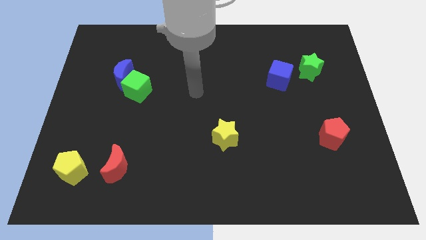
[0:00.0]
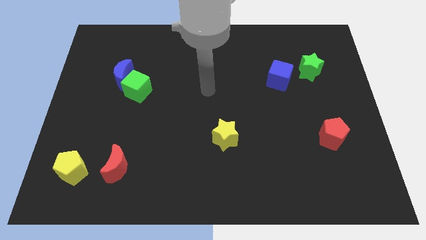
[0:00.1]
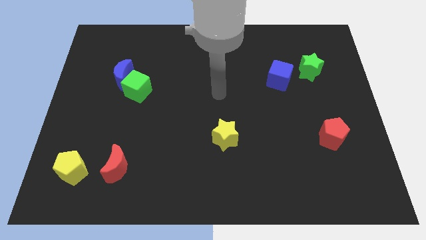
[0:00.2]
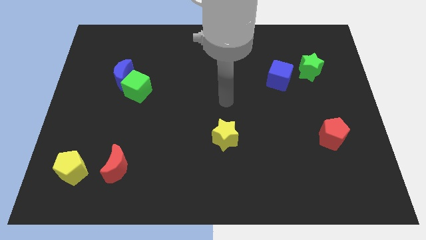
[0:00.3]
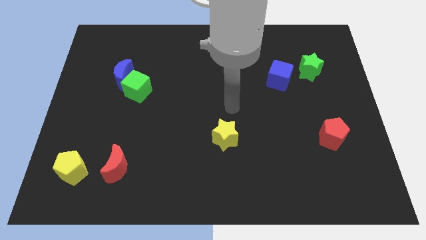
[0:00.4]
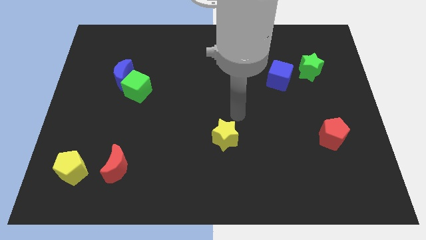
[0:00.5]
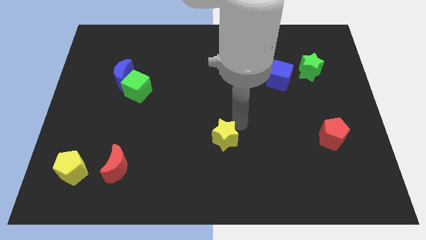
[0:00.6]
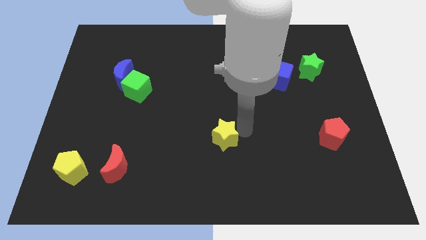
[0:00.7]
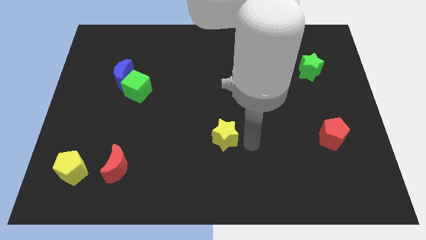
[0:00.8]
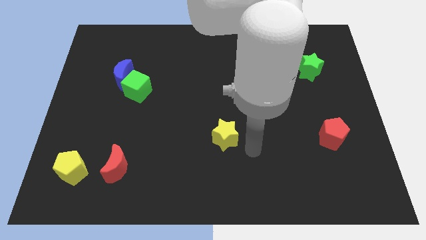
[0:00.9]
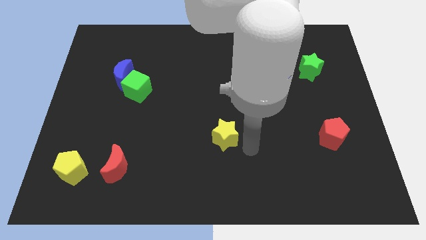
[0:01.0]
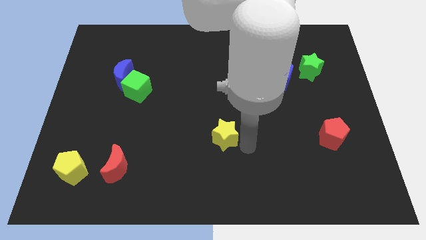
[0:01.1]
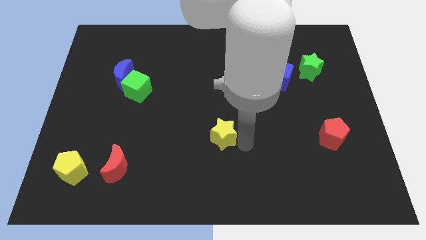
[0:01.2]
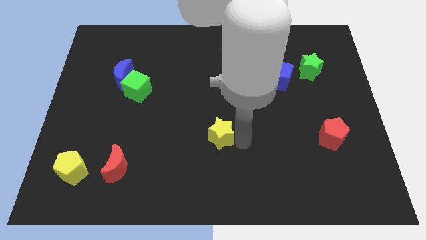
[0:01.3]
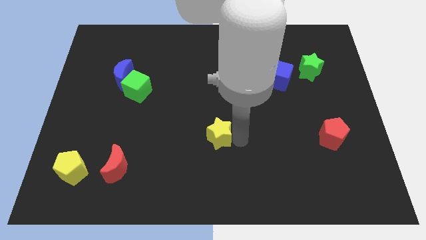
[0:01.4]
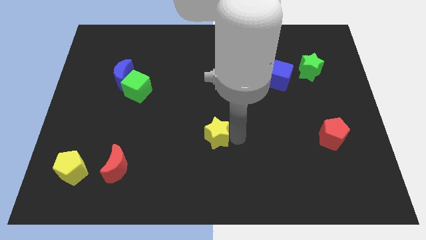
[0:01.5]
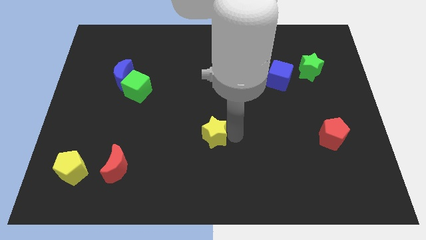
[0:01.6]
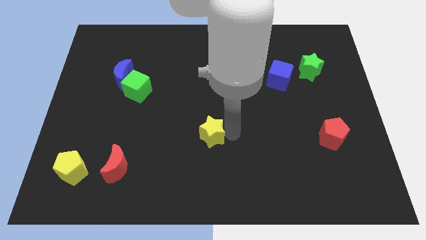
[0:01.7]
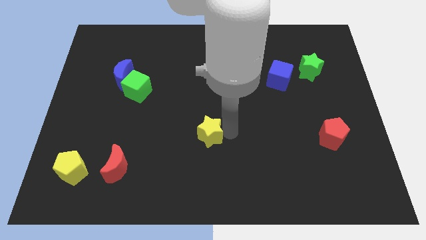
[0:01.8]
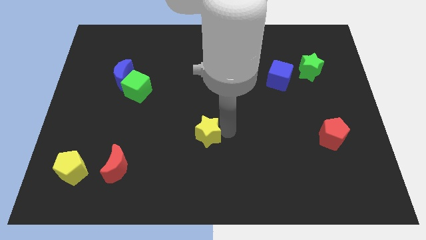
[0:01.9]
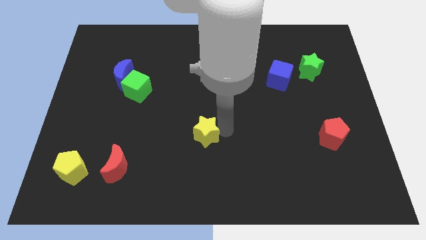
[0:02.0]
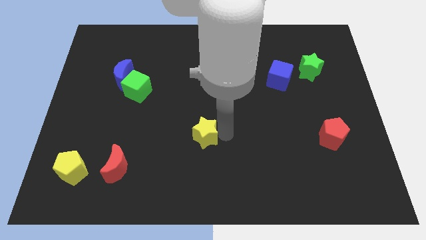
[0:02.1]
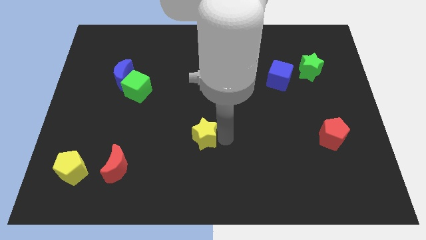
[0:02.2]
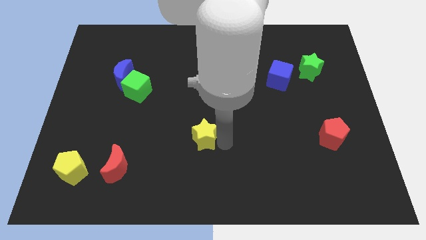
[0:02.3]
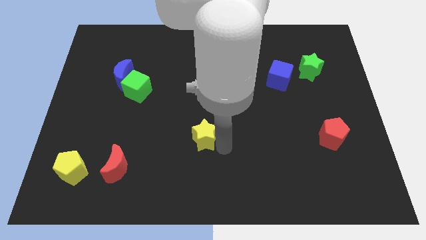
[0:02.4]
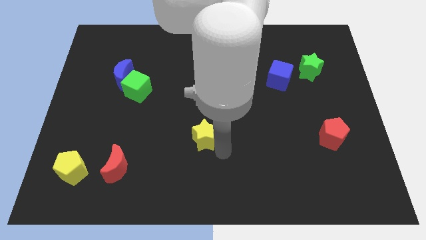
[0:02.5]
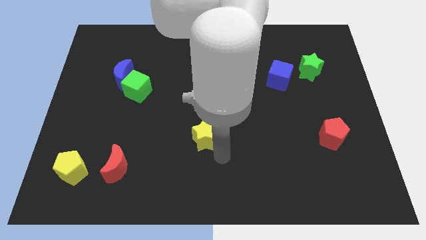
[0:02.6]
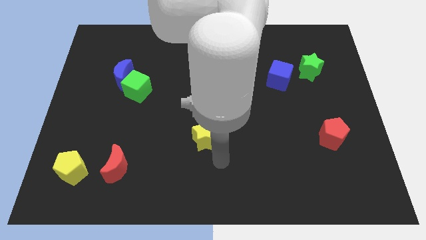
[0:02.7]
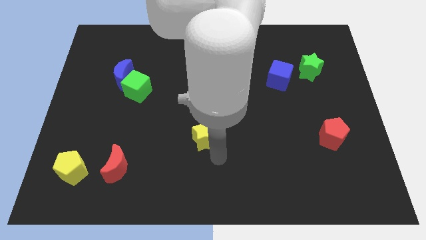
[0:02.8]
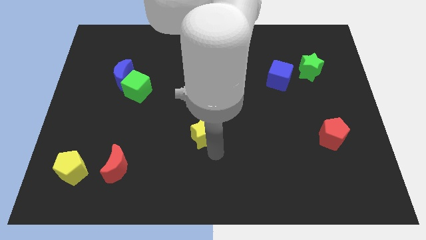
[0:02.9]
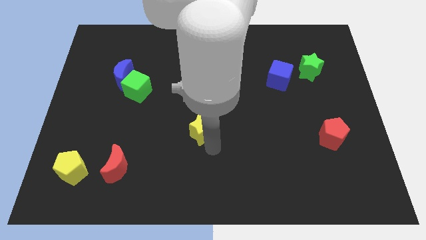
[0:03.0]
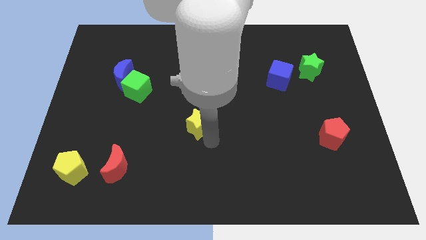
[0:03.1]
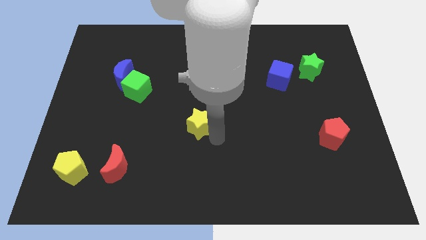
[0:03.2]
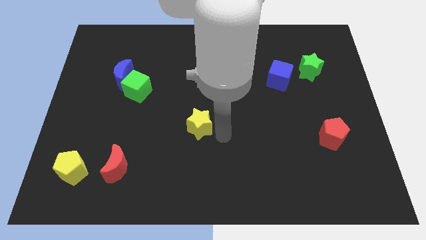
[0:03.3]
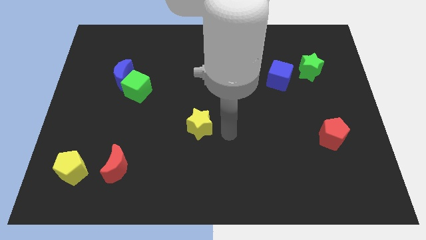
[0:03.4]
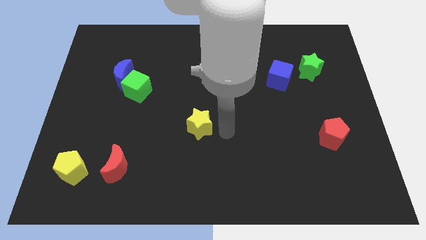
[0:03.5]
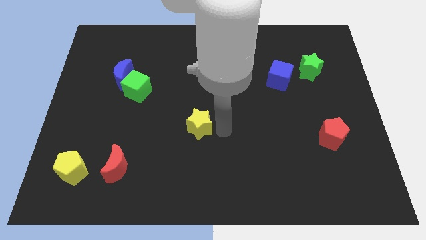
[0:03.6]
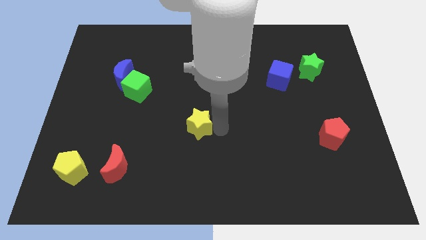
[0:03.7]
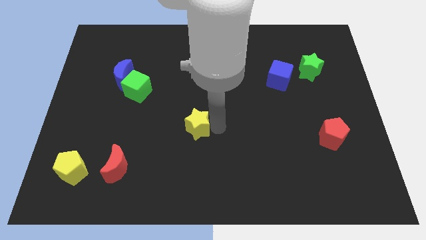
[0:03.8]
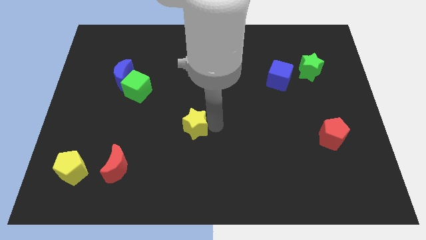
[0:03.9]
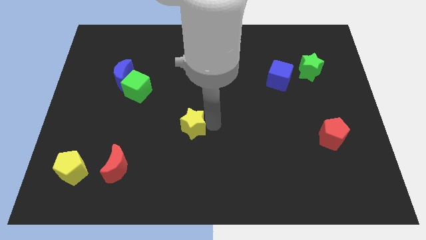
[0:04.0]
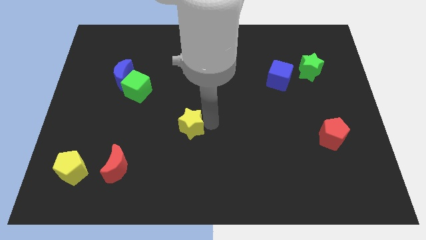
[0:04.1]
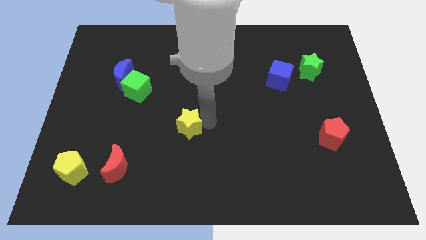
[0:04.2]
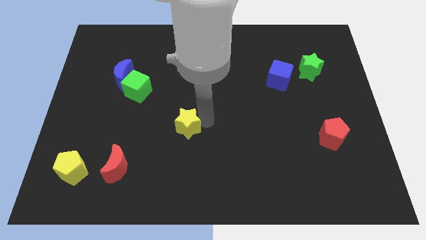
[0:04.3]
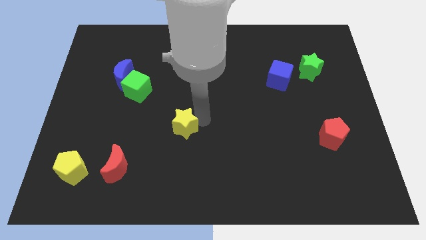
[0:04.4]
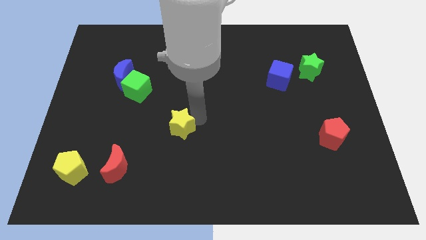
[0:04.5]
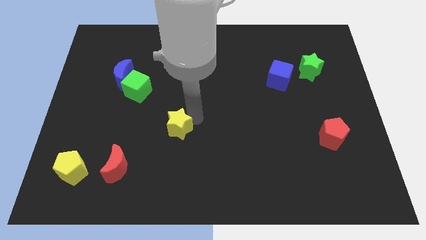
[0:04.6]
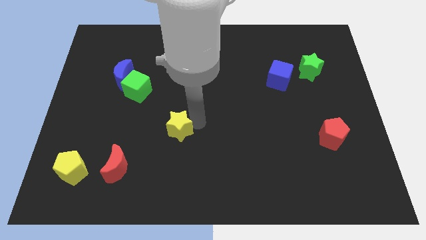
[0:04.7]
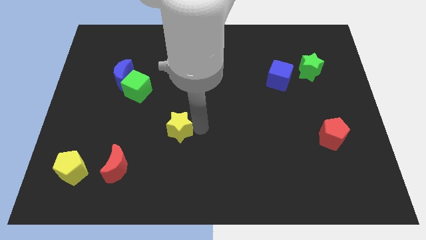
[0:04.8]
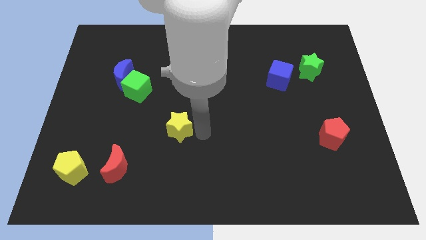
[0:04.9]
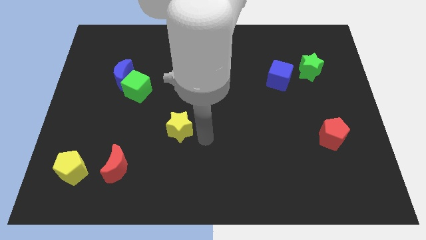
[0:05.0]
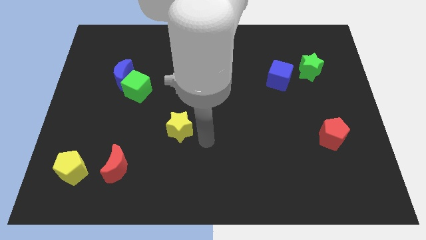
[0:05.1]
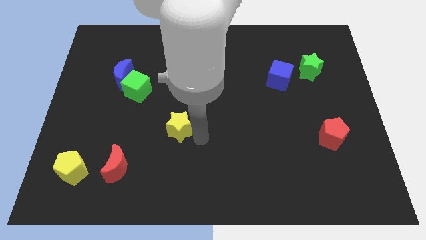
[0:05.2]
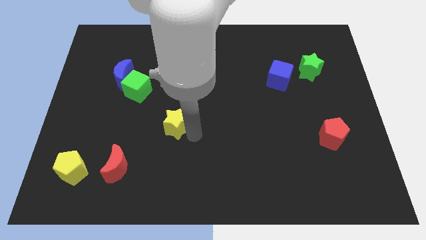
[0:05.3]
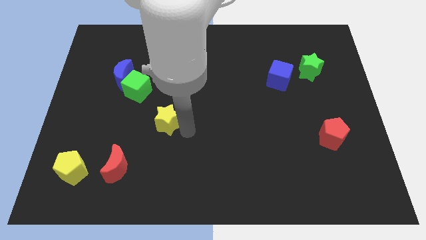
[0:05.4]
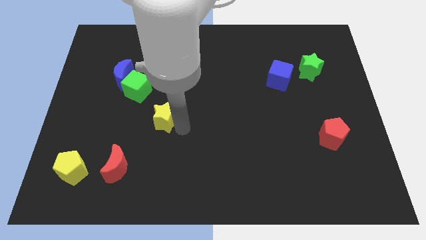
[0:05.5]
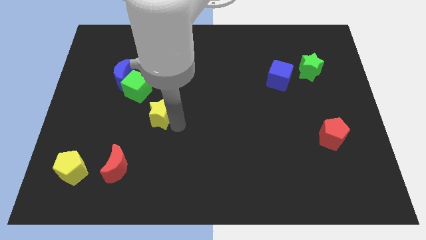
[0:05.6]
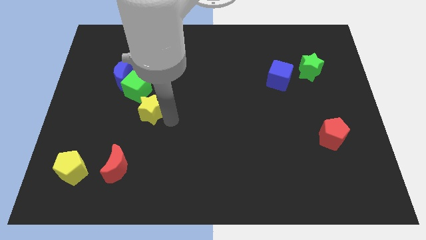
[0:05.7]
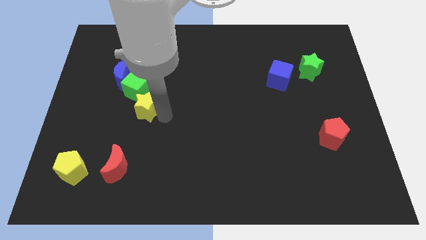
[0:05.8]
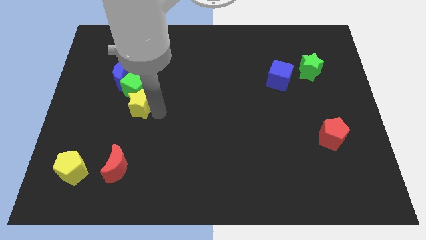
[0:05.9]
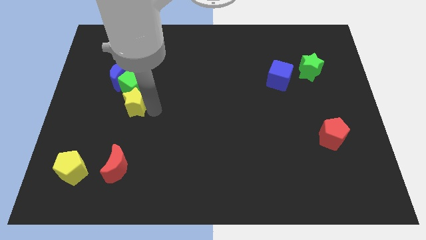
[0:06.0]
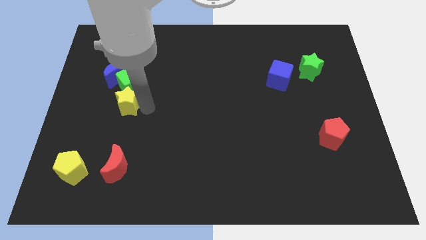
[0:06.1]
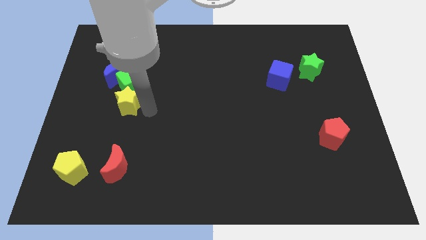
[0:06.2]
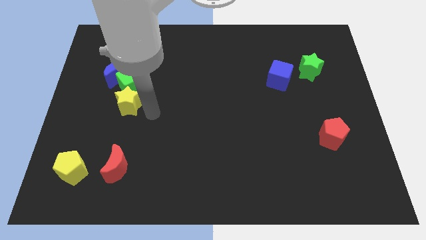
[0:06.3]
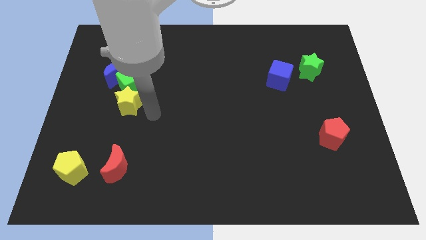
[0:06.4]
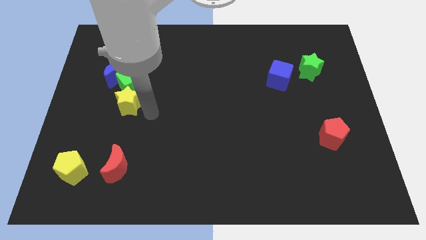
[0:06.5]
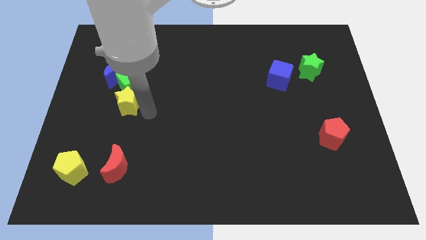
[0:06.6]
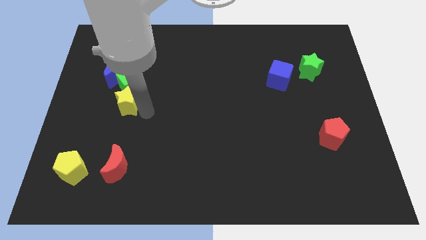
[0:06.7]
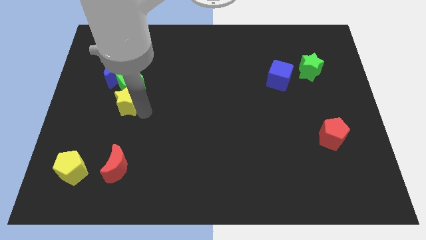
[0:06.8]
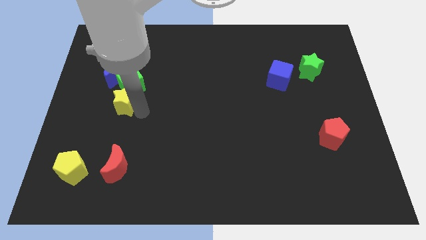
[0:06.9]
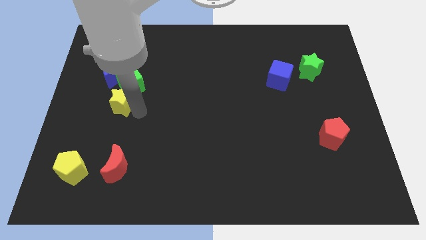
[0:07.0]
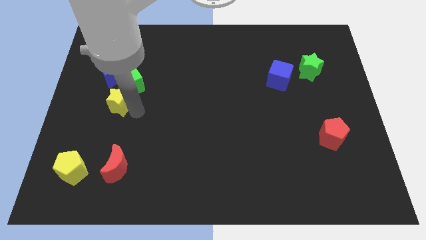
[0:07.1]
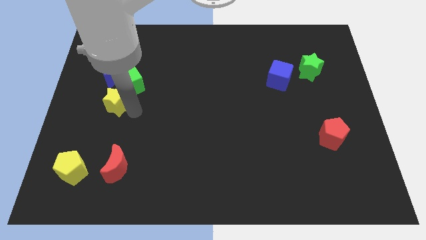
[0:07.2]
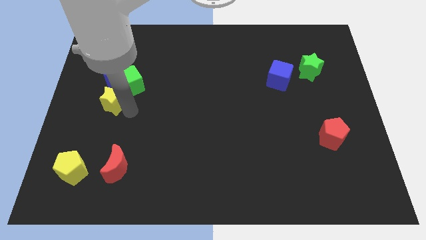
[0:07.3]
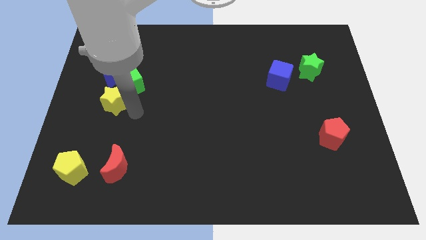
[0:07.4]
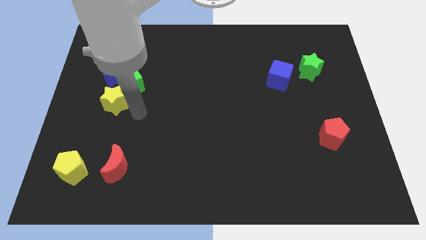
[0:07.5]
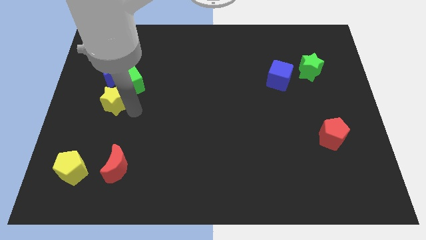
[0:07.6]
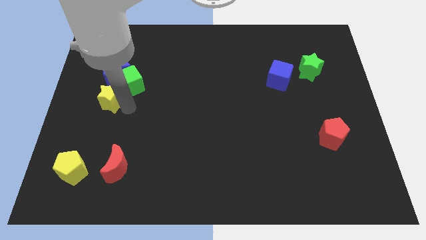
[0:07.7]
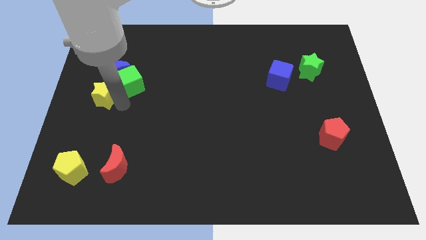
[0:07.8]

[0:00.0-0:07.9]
move the yellow star to the bottom left of the blue moon
